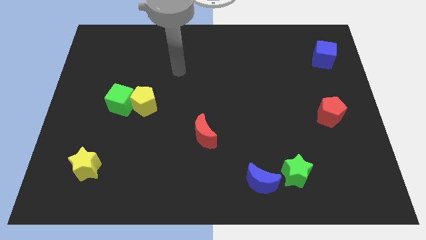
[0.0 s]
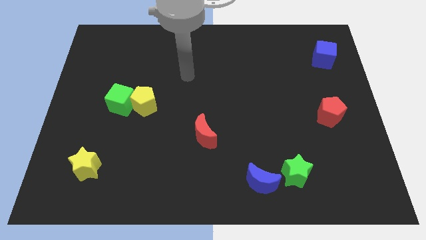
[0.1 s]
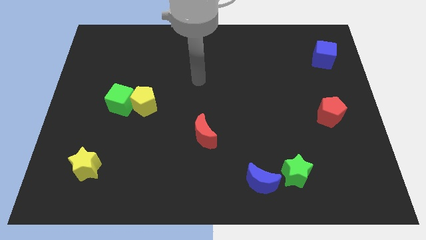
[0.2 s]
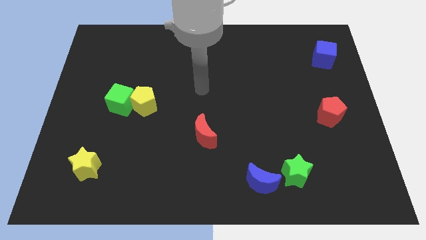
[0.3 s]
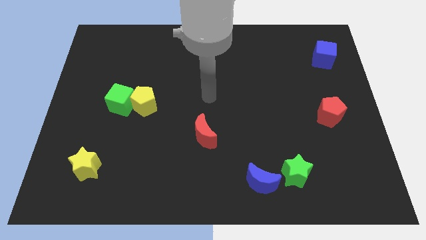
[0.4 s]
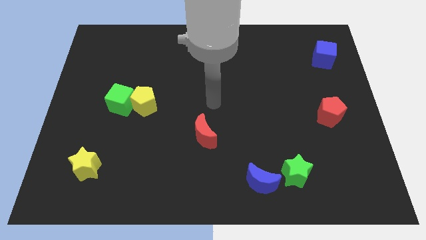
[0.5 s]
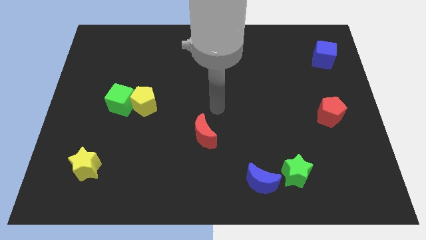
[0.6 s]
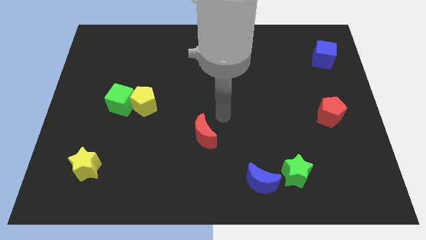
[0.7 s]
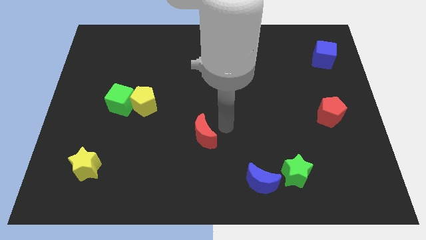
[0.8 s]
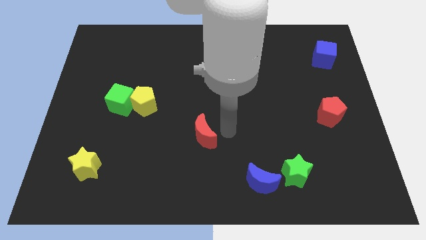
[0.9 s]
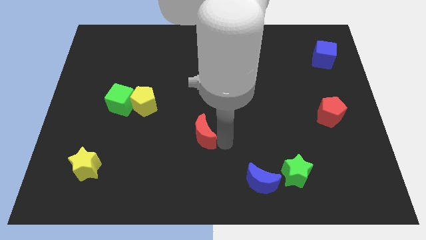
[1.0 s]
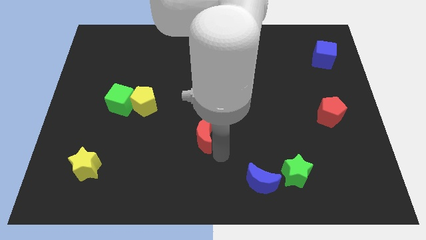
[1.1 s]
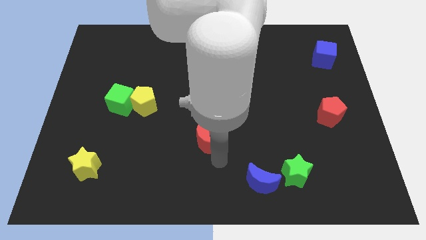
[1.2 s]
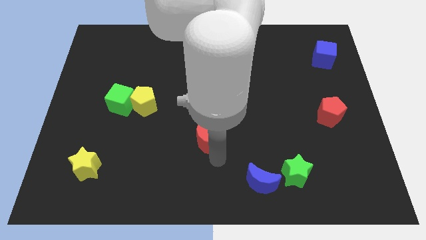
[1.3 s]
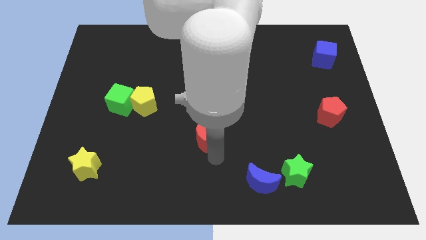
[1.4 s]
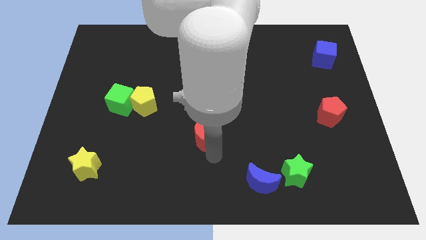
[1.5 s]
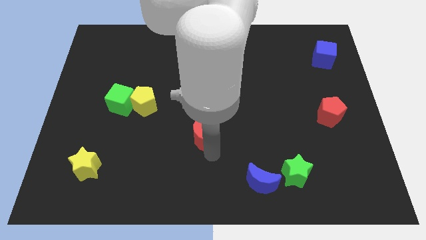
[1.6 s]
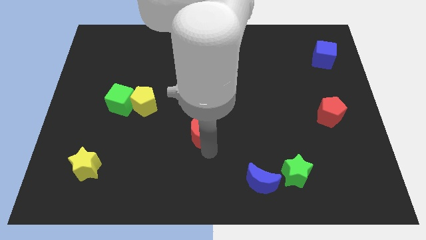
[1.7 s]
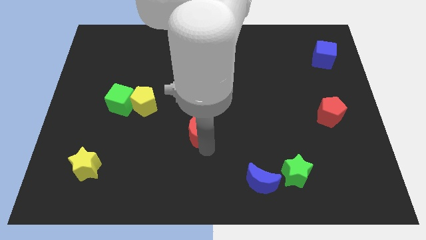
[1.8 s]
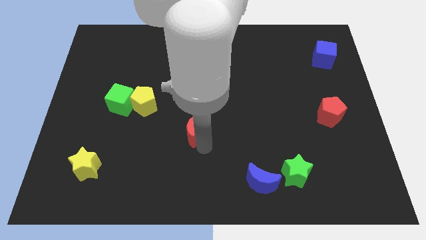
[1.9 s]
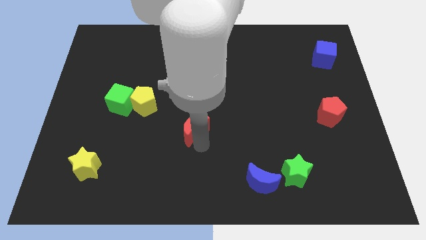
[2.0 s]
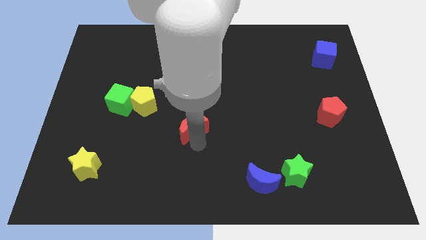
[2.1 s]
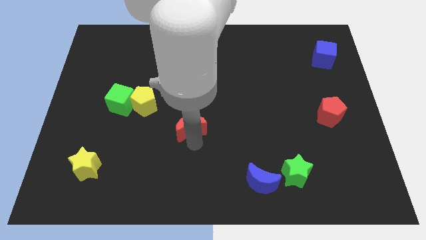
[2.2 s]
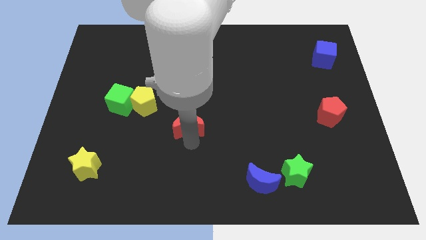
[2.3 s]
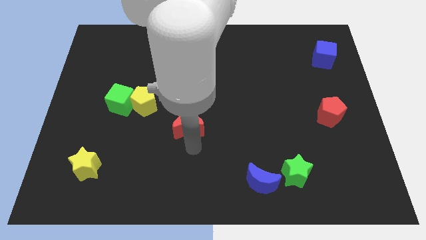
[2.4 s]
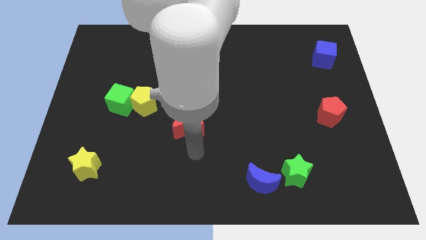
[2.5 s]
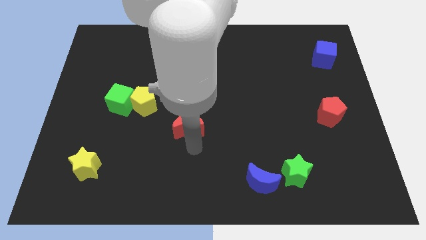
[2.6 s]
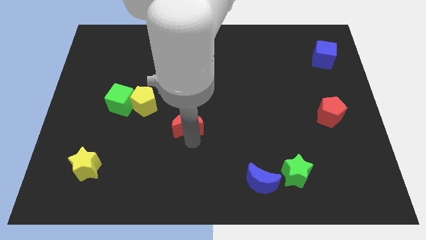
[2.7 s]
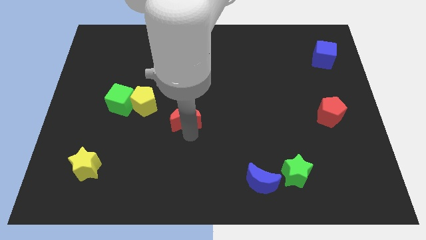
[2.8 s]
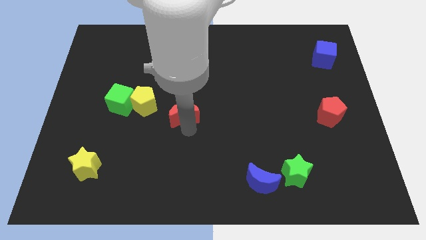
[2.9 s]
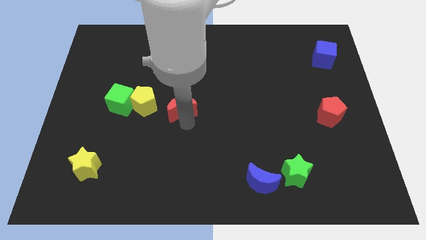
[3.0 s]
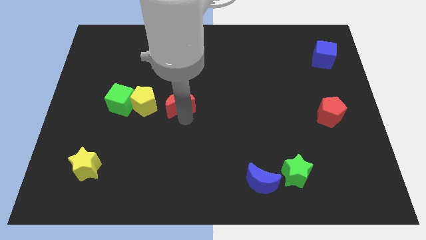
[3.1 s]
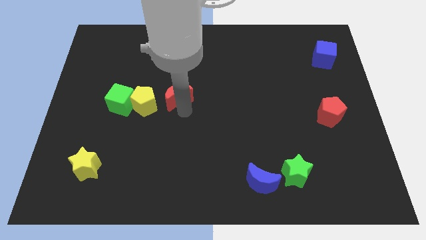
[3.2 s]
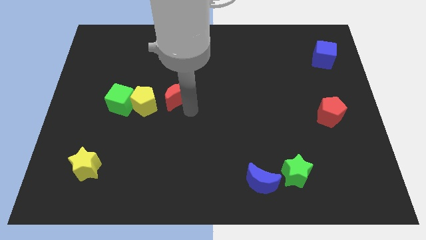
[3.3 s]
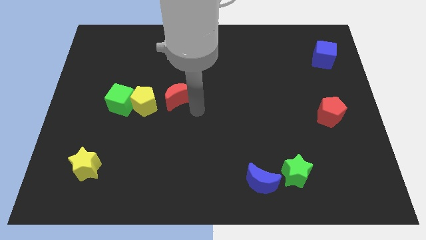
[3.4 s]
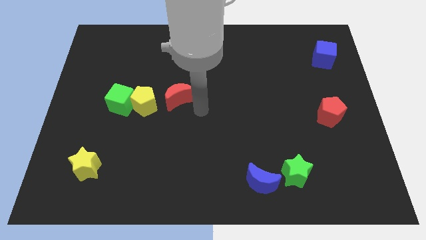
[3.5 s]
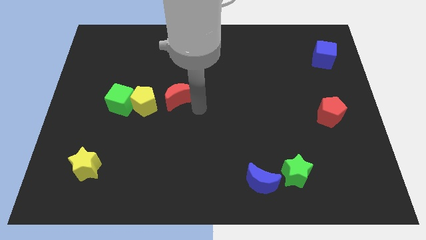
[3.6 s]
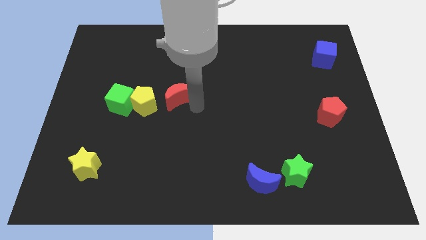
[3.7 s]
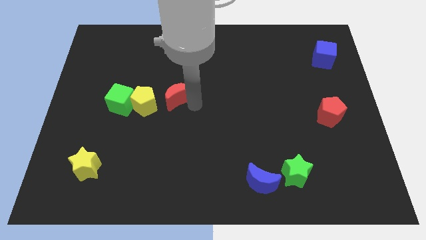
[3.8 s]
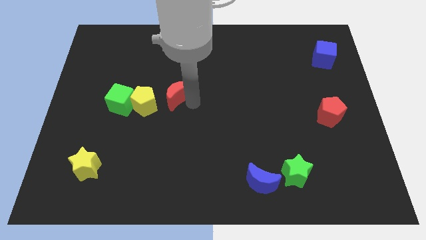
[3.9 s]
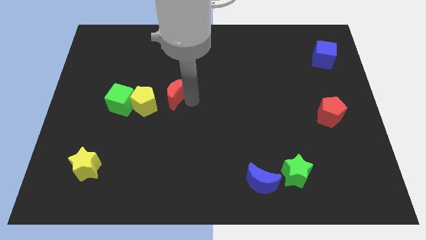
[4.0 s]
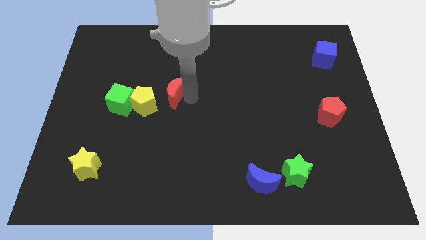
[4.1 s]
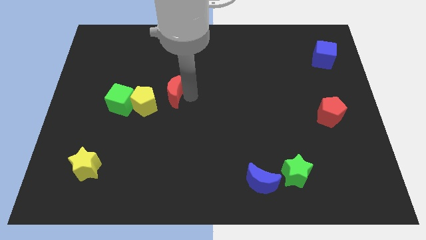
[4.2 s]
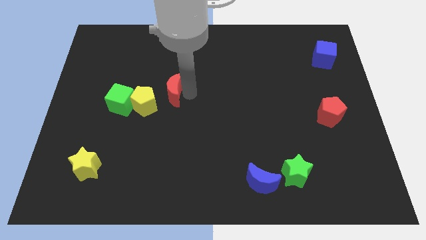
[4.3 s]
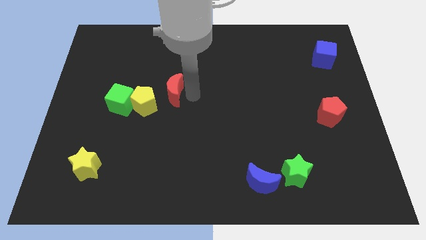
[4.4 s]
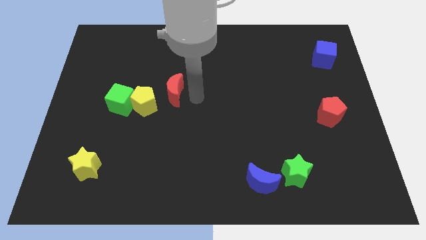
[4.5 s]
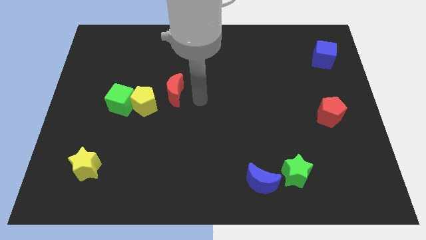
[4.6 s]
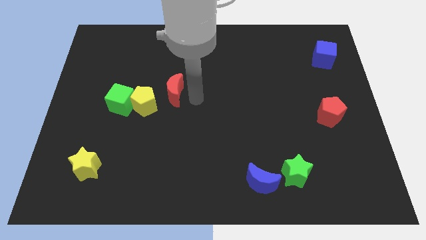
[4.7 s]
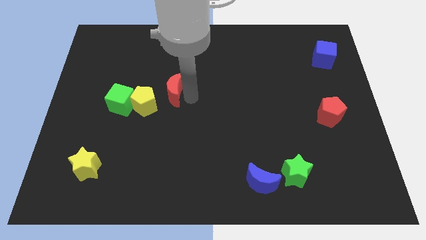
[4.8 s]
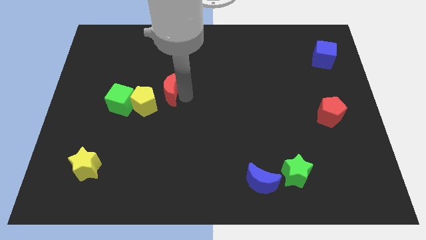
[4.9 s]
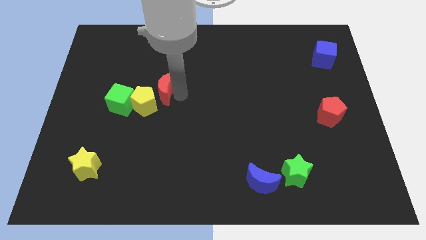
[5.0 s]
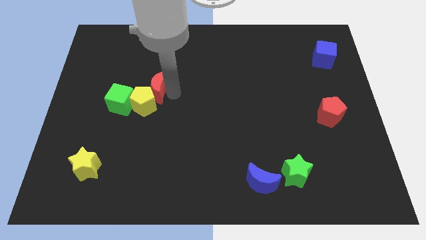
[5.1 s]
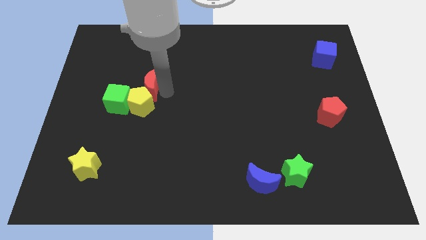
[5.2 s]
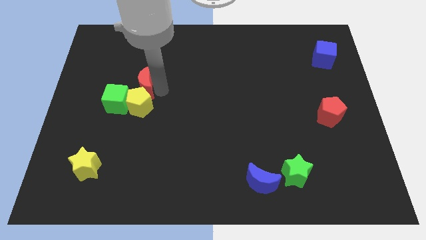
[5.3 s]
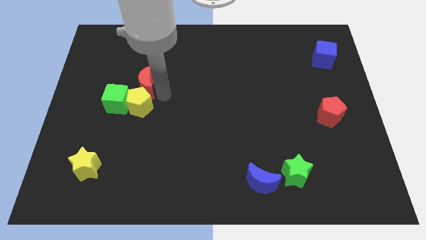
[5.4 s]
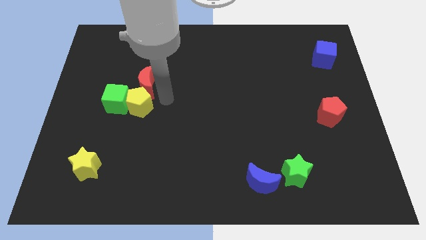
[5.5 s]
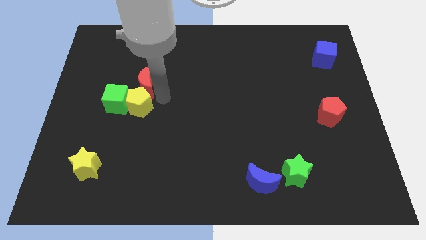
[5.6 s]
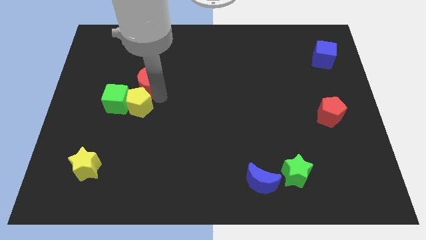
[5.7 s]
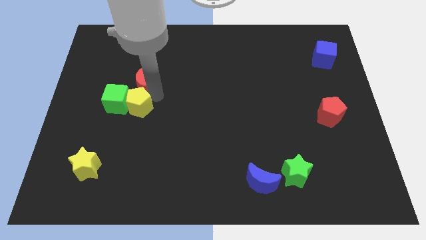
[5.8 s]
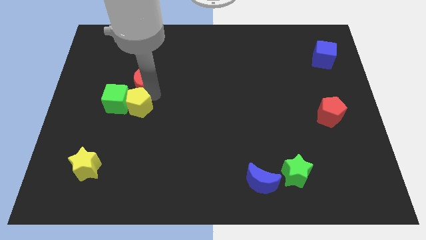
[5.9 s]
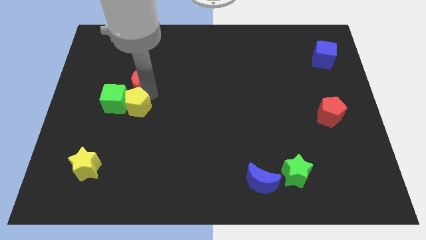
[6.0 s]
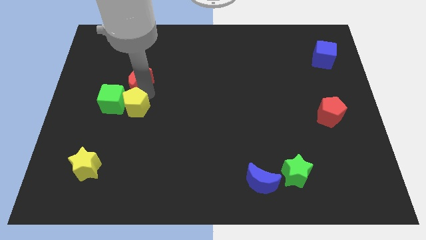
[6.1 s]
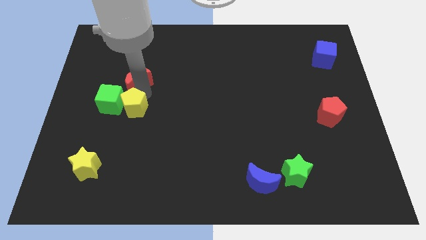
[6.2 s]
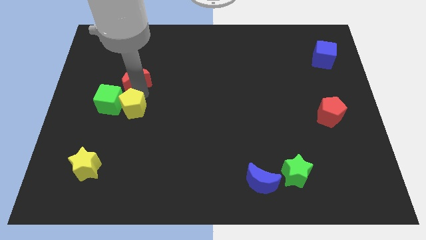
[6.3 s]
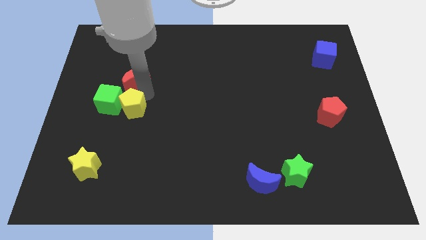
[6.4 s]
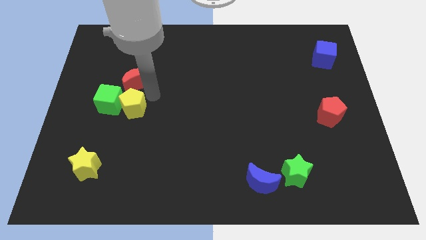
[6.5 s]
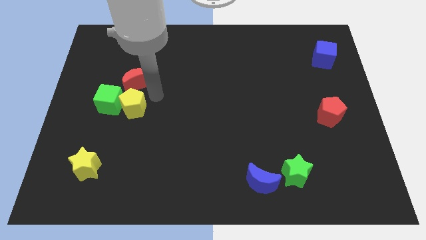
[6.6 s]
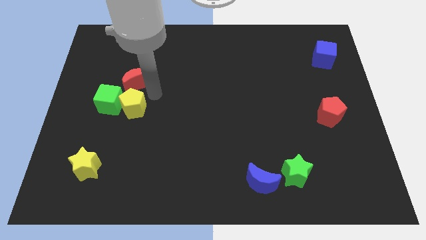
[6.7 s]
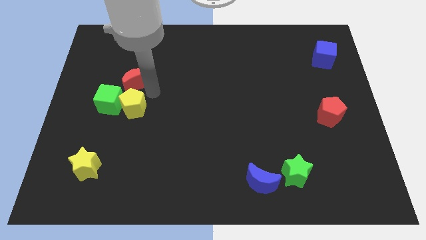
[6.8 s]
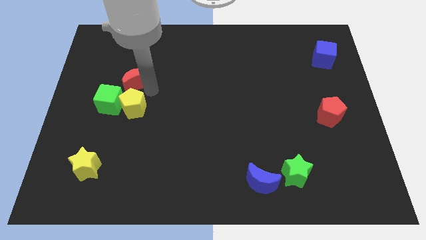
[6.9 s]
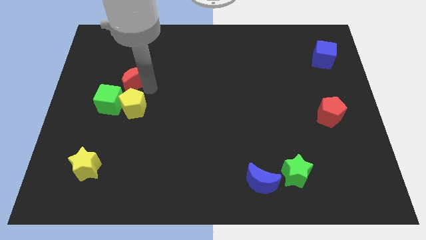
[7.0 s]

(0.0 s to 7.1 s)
slide the red moon above the green cube
